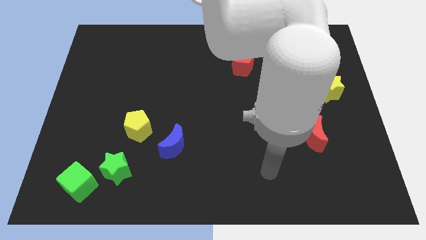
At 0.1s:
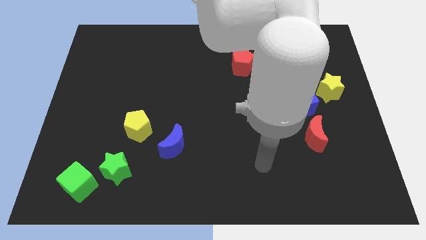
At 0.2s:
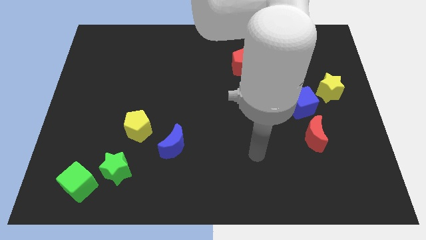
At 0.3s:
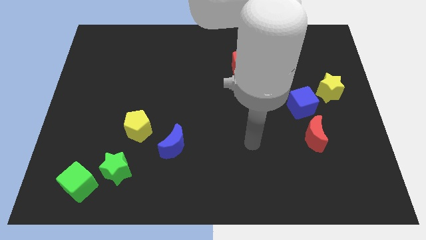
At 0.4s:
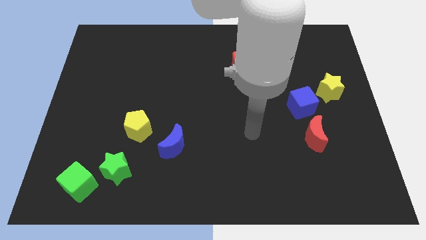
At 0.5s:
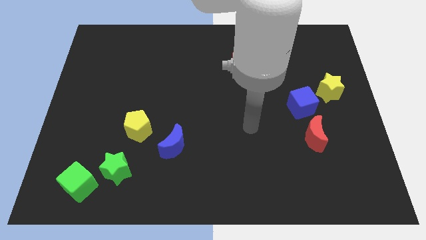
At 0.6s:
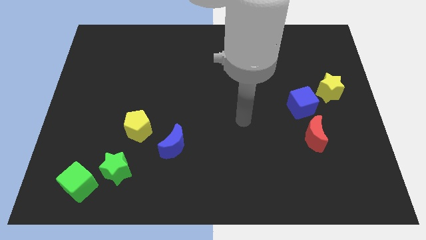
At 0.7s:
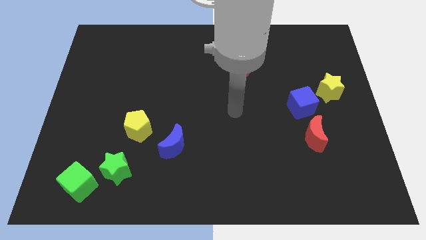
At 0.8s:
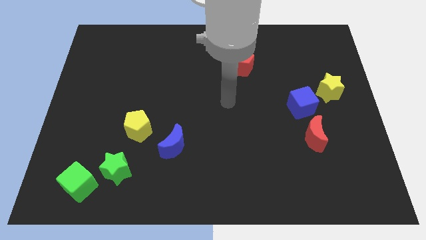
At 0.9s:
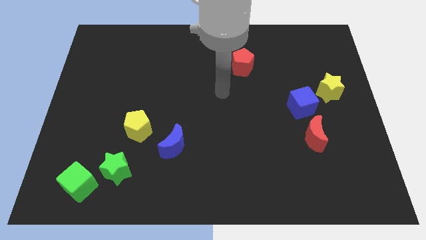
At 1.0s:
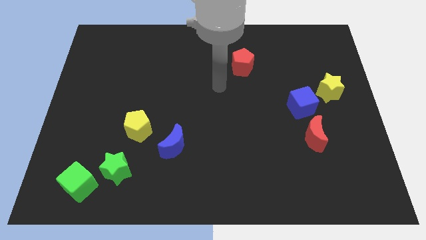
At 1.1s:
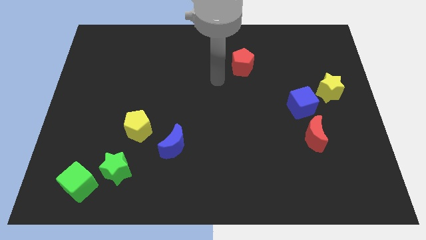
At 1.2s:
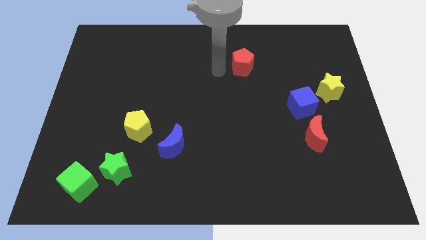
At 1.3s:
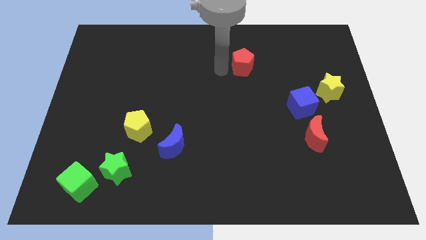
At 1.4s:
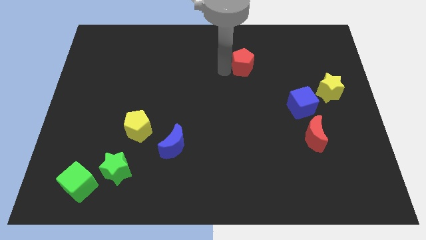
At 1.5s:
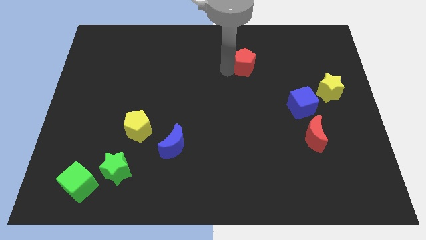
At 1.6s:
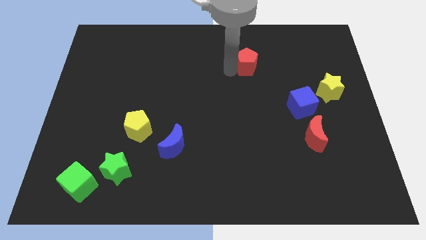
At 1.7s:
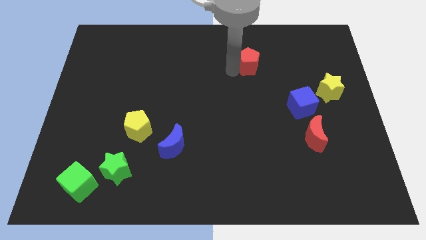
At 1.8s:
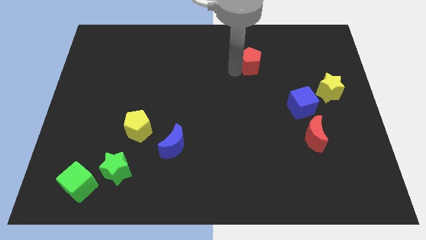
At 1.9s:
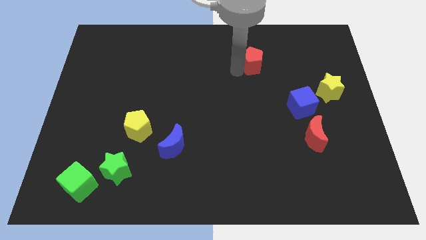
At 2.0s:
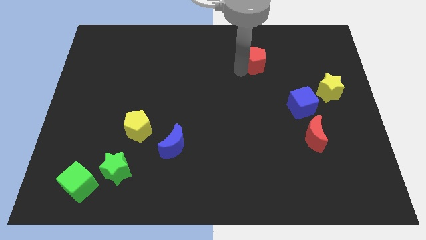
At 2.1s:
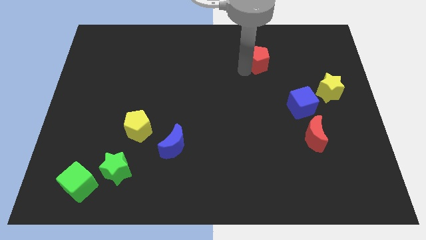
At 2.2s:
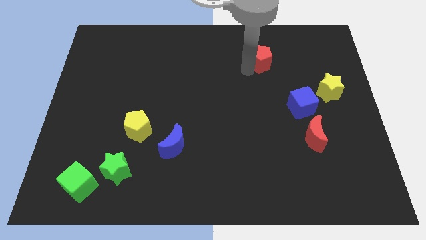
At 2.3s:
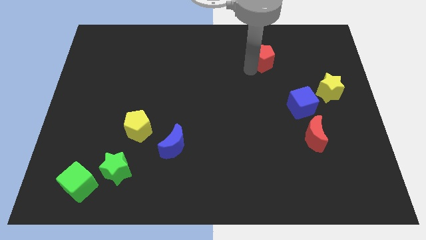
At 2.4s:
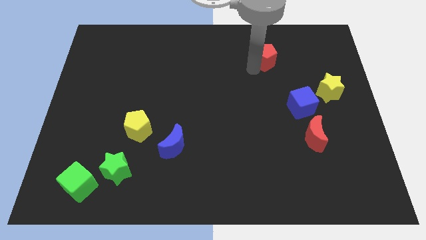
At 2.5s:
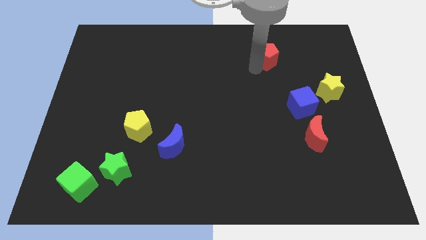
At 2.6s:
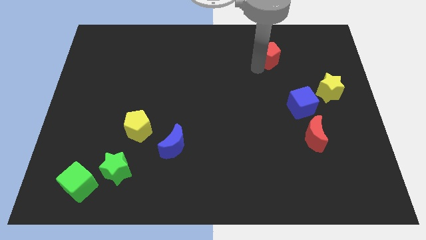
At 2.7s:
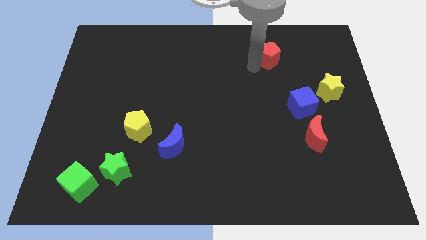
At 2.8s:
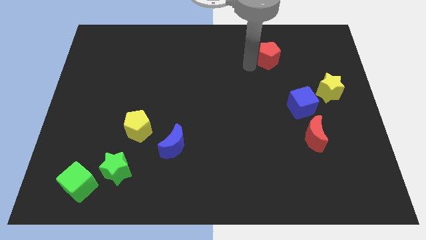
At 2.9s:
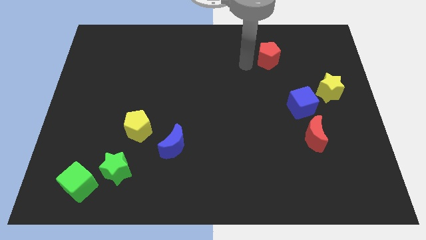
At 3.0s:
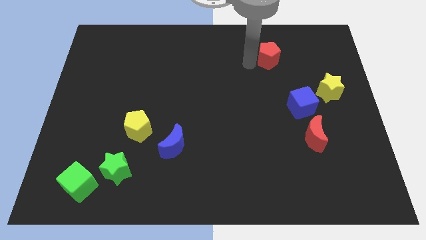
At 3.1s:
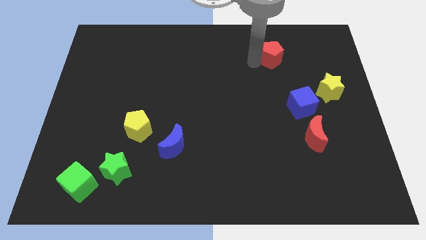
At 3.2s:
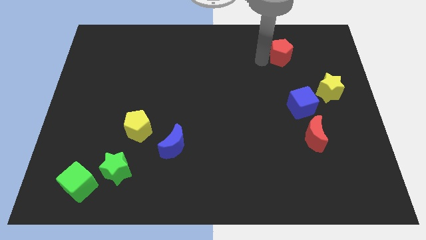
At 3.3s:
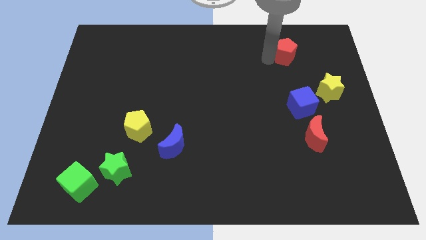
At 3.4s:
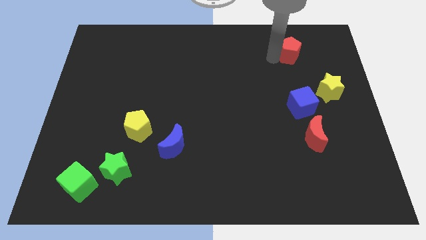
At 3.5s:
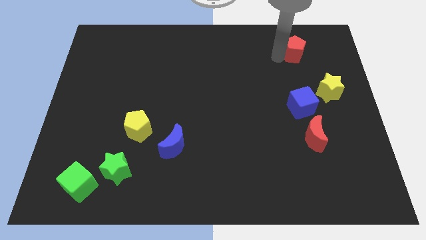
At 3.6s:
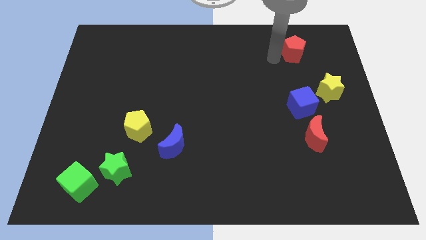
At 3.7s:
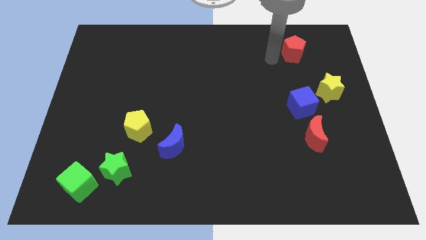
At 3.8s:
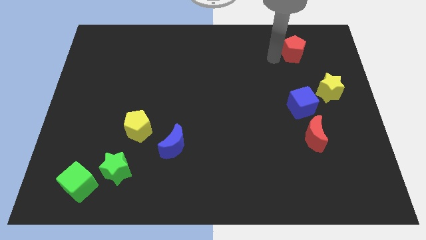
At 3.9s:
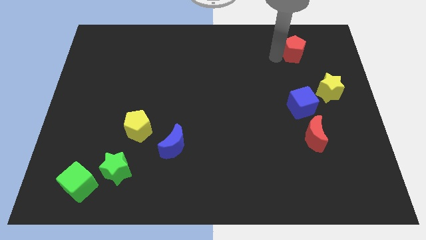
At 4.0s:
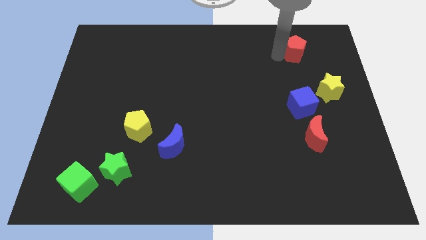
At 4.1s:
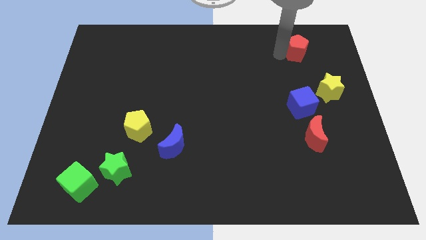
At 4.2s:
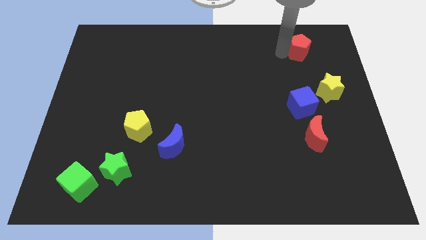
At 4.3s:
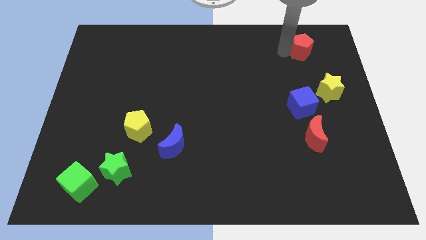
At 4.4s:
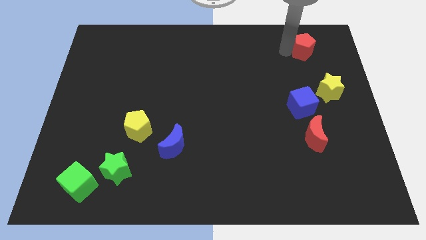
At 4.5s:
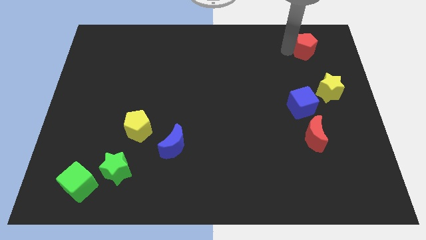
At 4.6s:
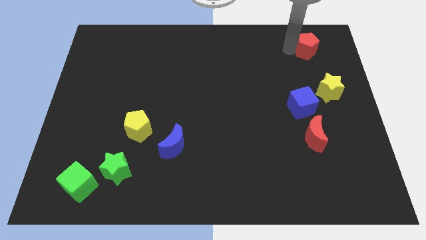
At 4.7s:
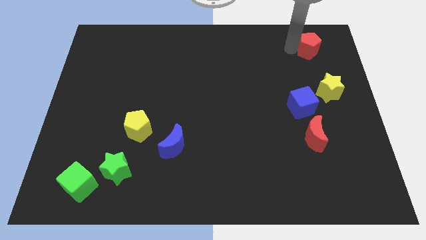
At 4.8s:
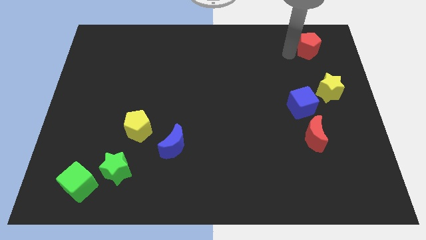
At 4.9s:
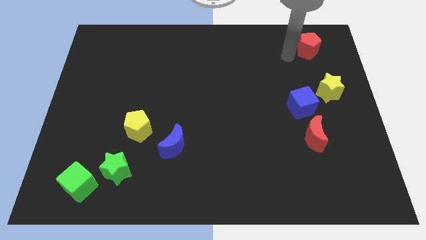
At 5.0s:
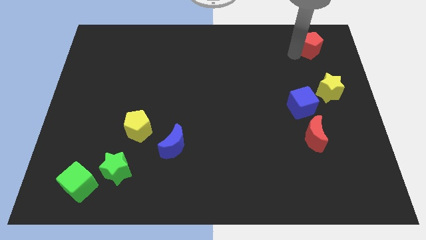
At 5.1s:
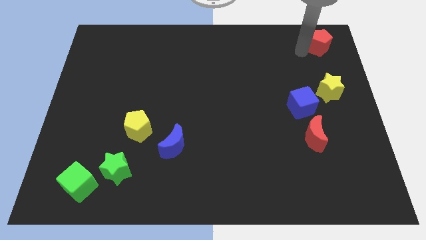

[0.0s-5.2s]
move the red pentagon to the top right of the board

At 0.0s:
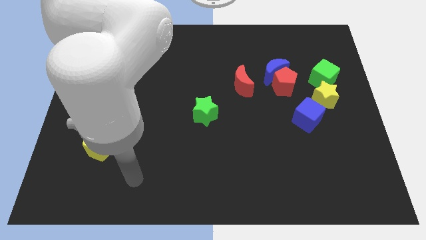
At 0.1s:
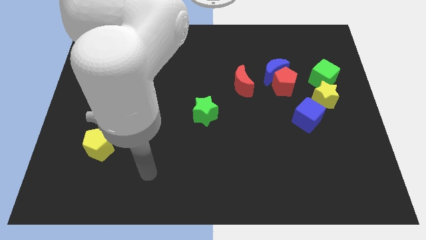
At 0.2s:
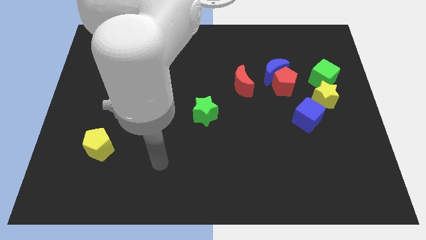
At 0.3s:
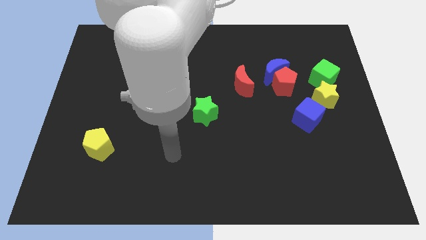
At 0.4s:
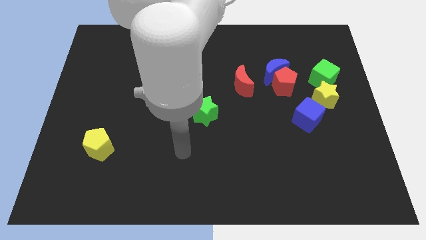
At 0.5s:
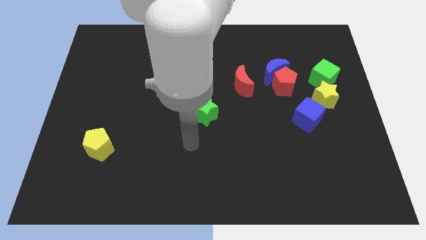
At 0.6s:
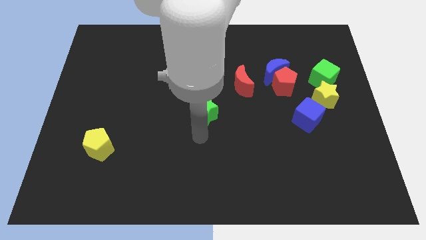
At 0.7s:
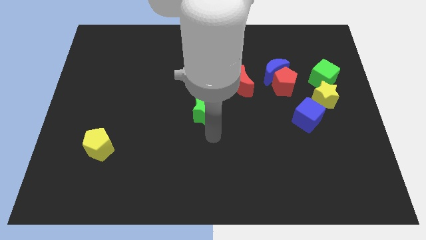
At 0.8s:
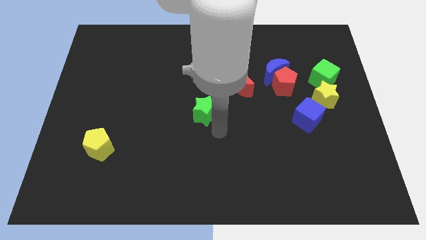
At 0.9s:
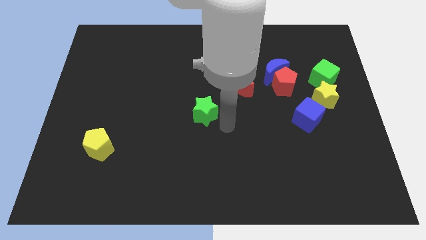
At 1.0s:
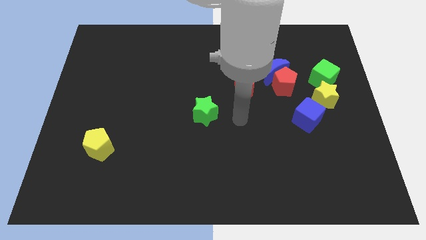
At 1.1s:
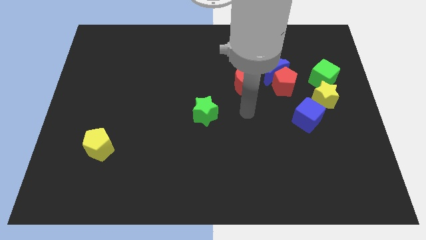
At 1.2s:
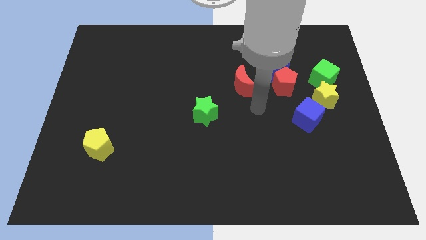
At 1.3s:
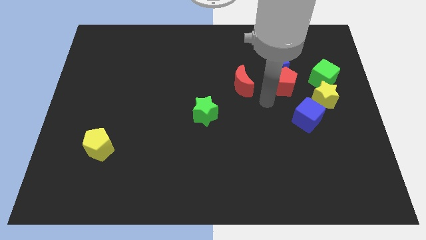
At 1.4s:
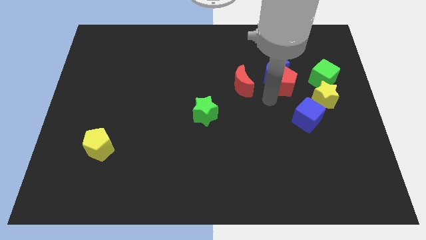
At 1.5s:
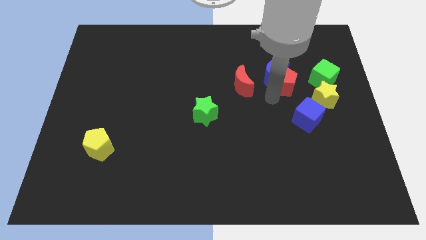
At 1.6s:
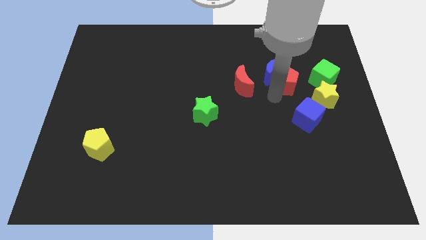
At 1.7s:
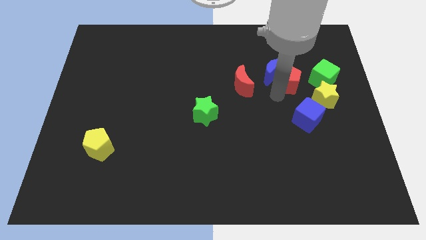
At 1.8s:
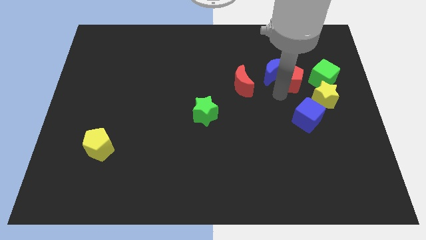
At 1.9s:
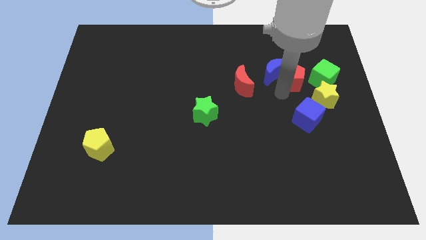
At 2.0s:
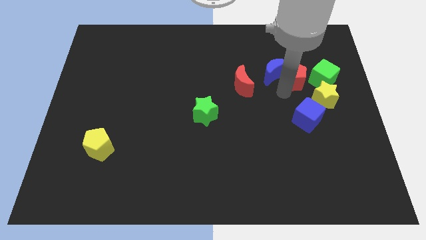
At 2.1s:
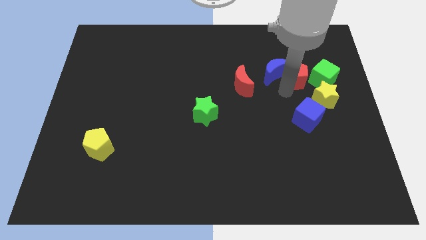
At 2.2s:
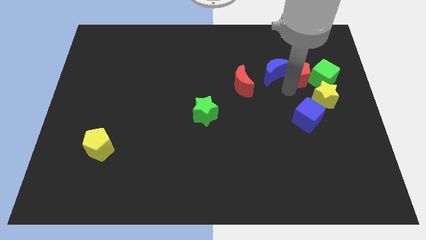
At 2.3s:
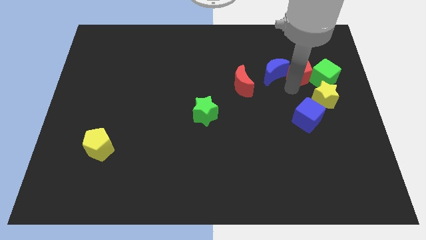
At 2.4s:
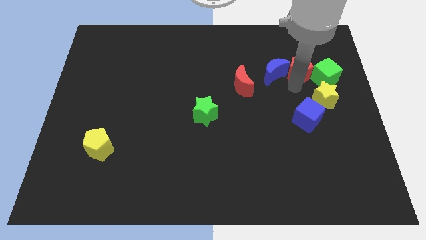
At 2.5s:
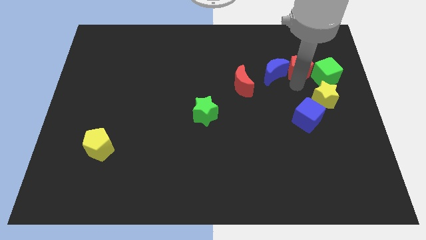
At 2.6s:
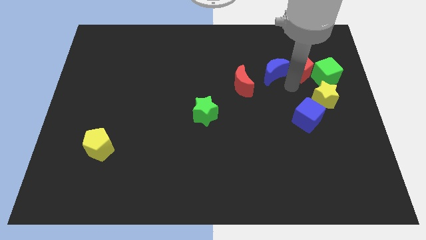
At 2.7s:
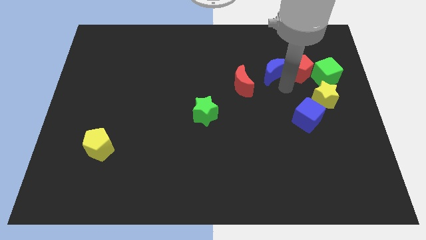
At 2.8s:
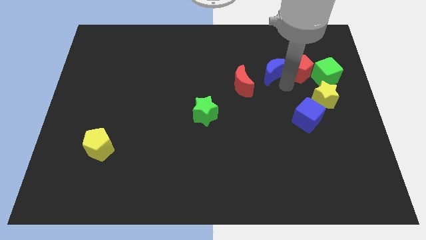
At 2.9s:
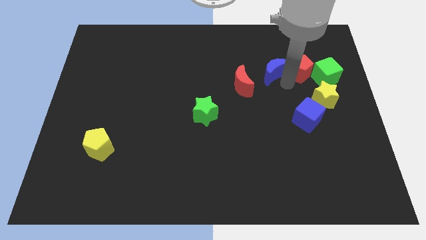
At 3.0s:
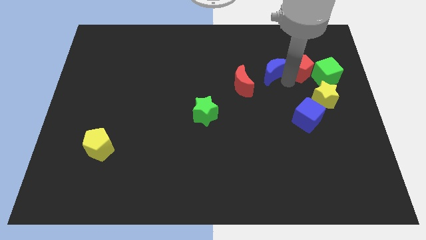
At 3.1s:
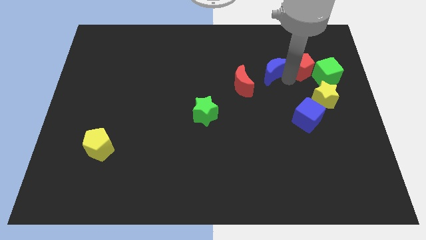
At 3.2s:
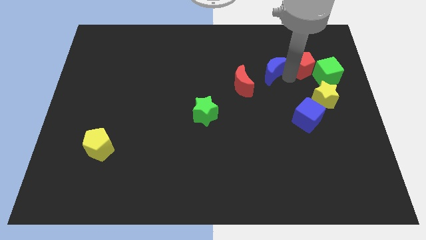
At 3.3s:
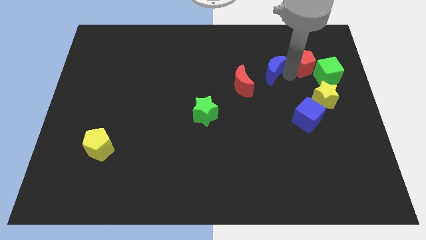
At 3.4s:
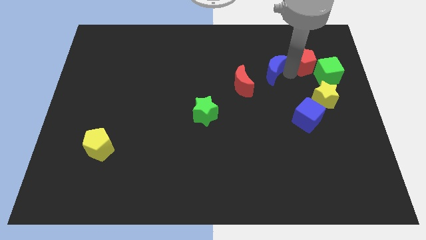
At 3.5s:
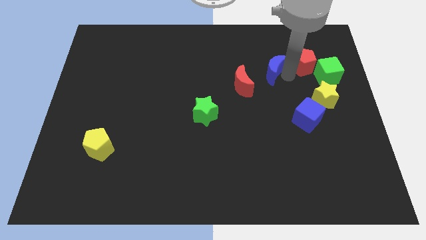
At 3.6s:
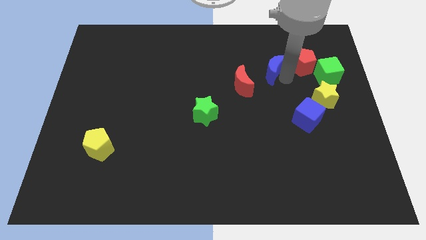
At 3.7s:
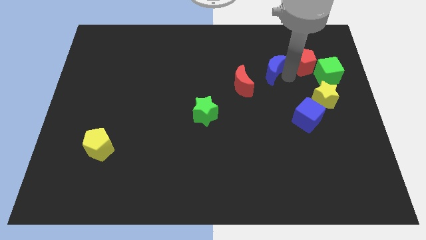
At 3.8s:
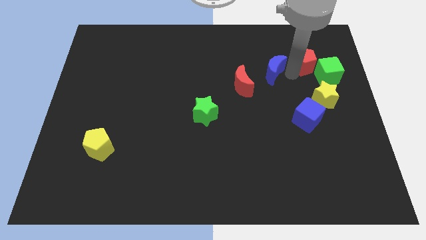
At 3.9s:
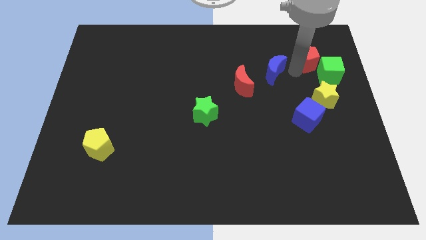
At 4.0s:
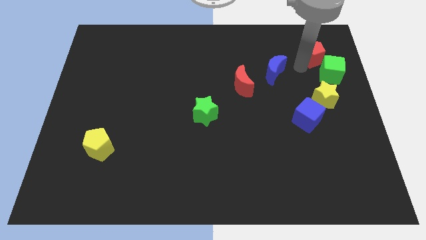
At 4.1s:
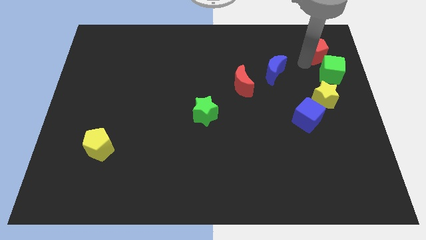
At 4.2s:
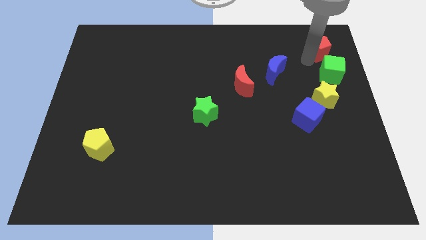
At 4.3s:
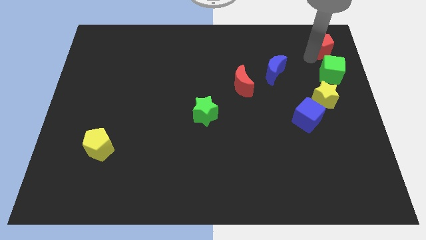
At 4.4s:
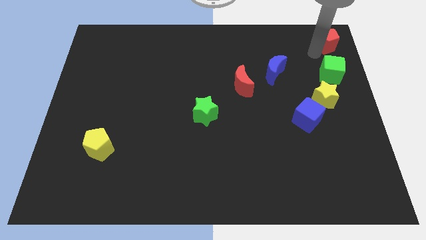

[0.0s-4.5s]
push the red pentagon to the top right corner
